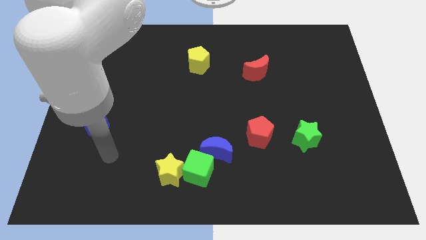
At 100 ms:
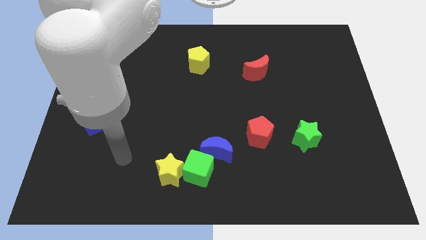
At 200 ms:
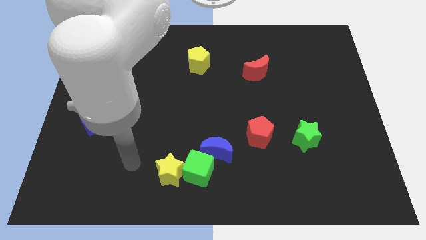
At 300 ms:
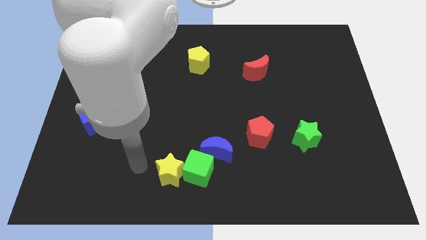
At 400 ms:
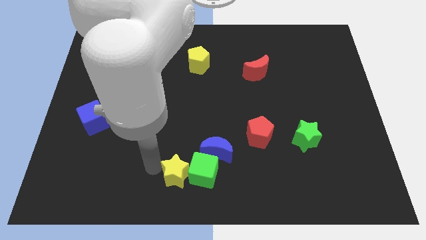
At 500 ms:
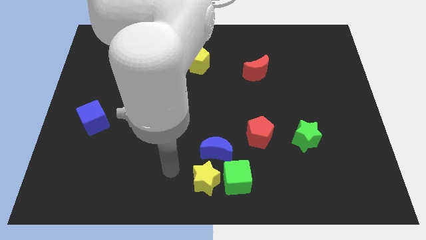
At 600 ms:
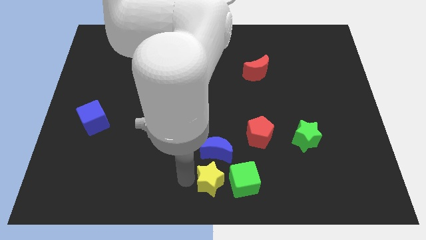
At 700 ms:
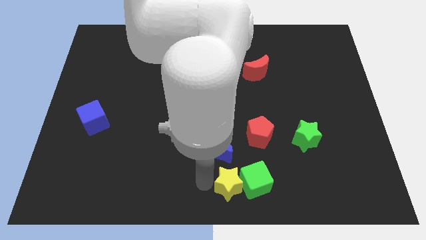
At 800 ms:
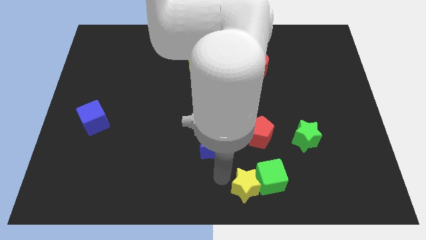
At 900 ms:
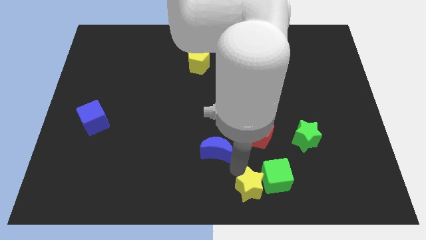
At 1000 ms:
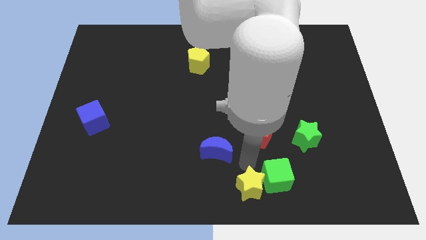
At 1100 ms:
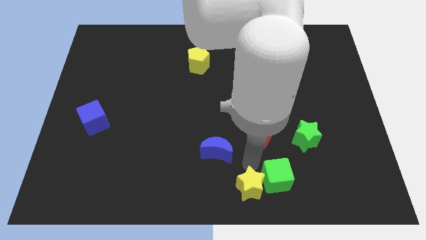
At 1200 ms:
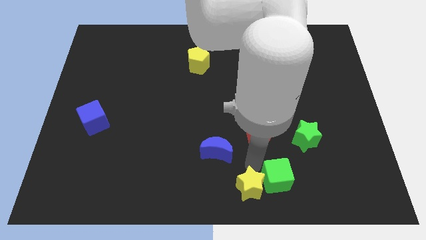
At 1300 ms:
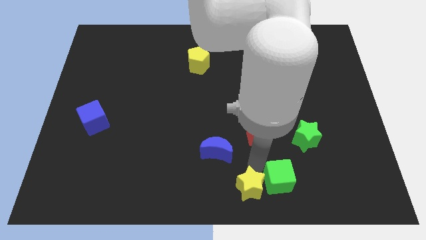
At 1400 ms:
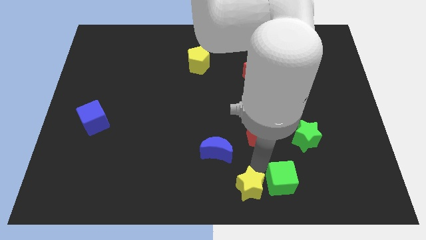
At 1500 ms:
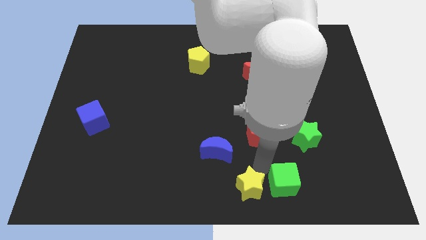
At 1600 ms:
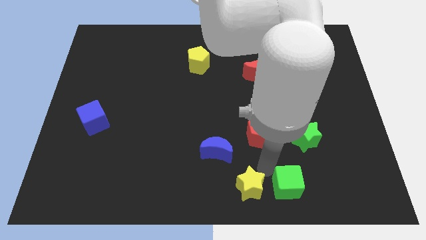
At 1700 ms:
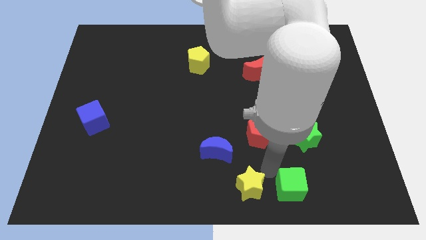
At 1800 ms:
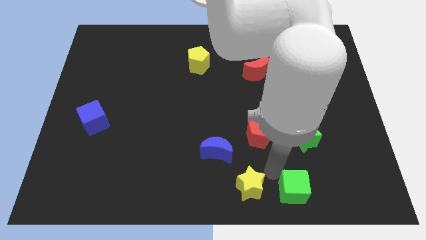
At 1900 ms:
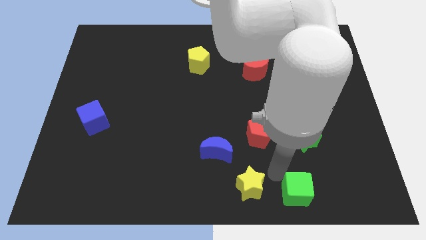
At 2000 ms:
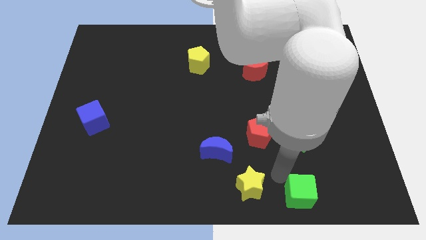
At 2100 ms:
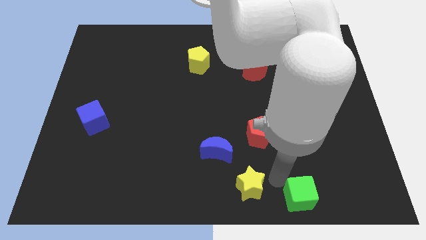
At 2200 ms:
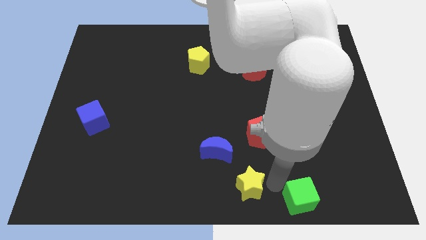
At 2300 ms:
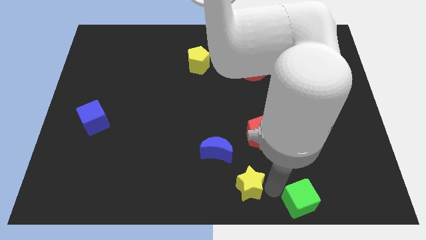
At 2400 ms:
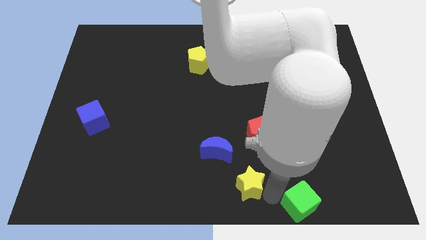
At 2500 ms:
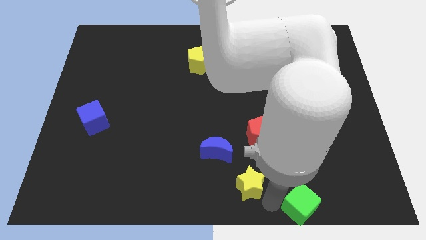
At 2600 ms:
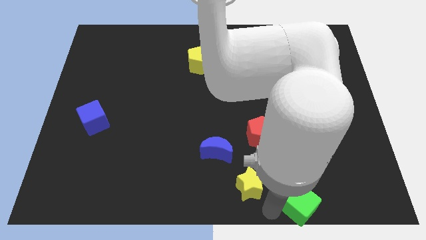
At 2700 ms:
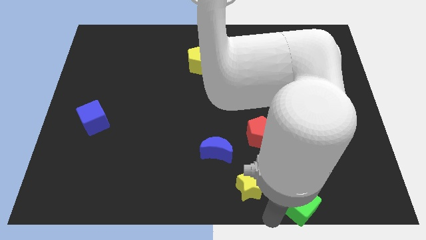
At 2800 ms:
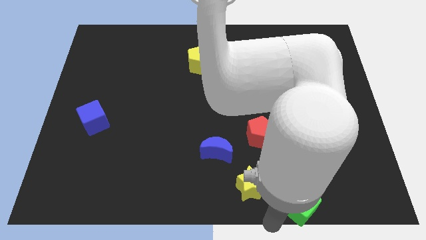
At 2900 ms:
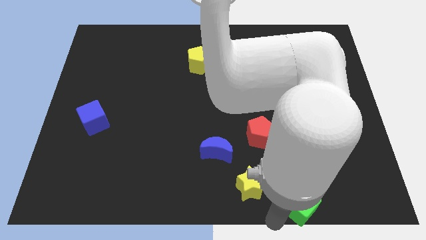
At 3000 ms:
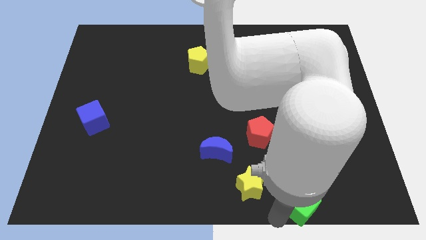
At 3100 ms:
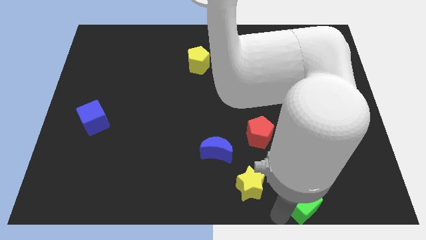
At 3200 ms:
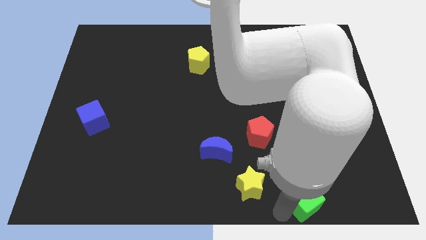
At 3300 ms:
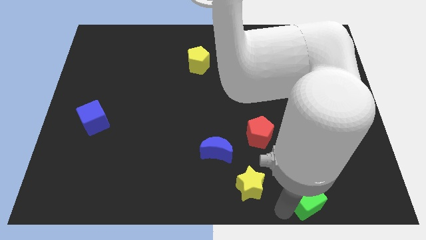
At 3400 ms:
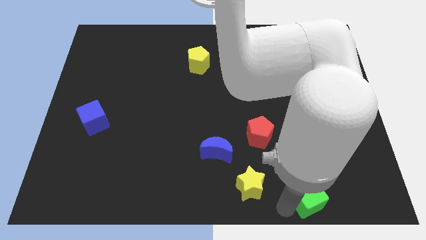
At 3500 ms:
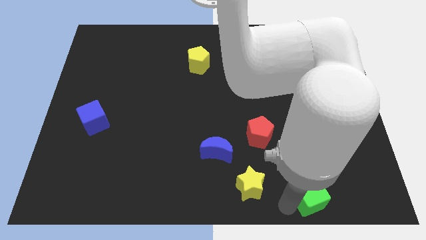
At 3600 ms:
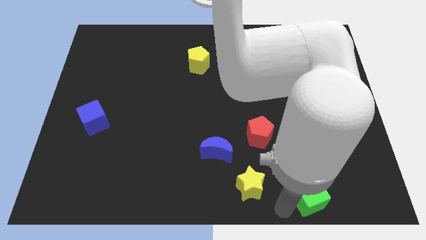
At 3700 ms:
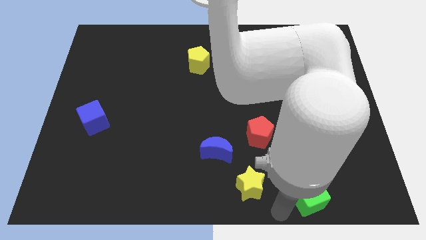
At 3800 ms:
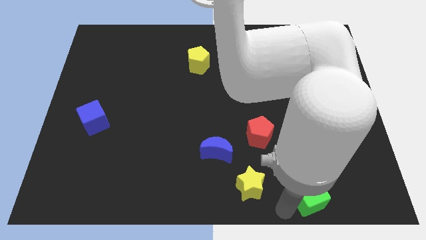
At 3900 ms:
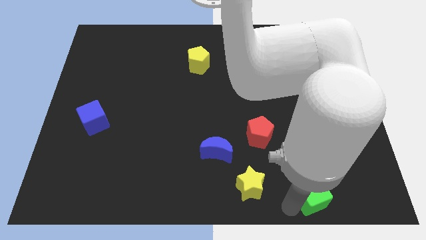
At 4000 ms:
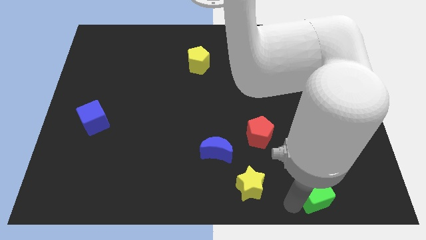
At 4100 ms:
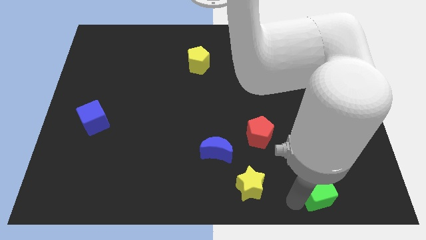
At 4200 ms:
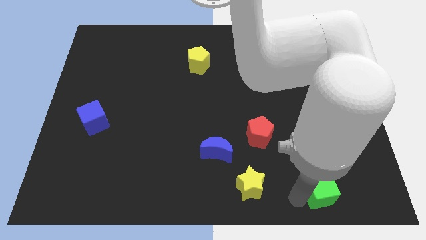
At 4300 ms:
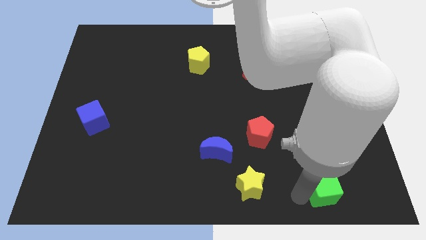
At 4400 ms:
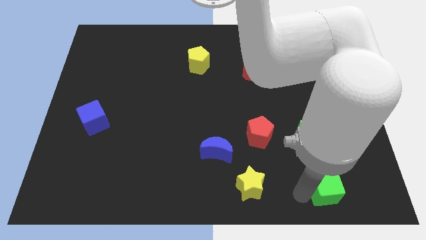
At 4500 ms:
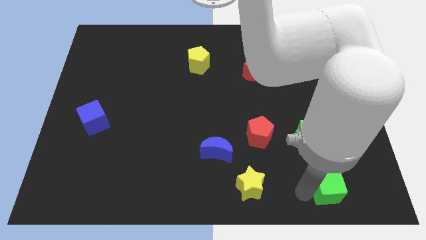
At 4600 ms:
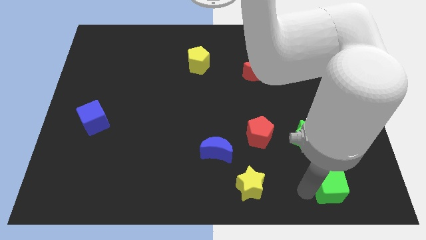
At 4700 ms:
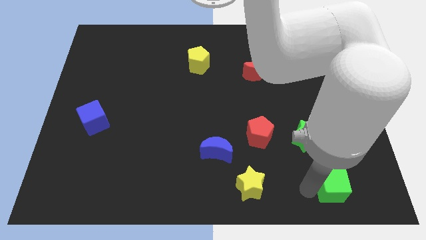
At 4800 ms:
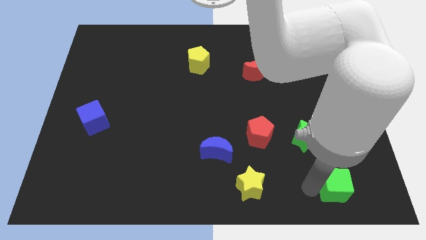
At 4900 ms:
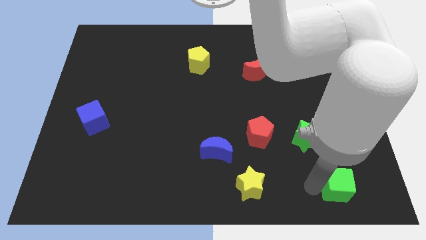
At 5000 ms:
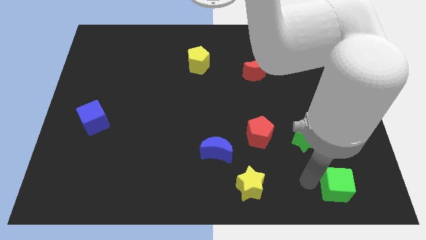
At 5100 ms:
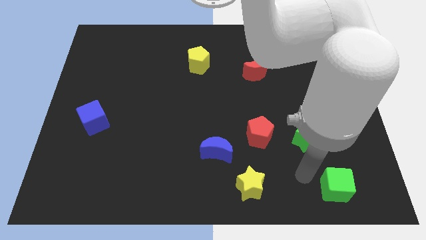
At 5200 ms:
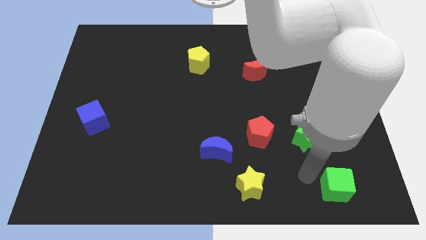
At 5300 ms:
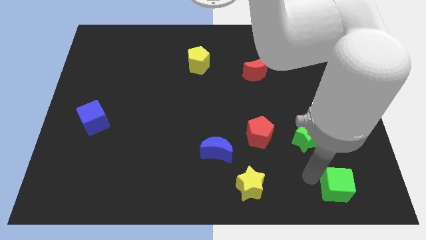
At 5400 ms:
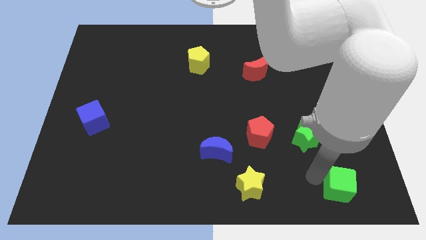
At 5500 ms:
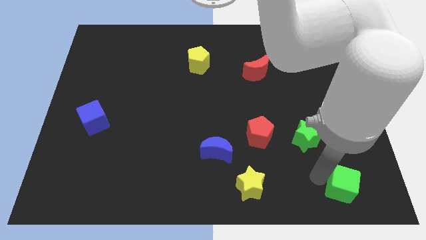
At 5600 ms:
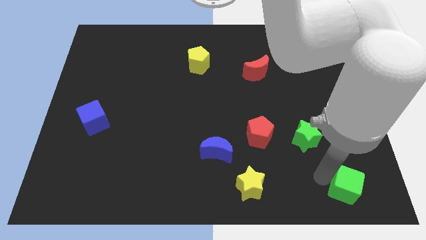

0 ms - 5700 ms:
move the green cube to the lower right corner

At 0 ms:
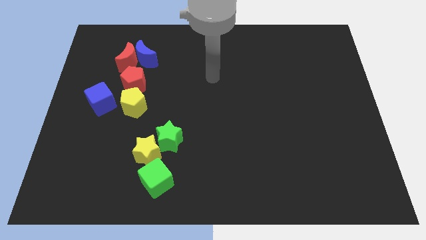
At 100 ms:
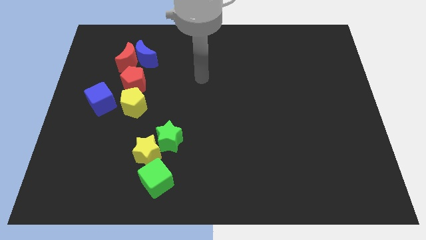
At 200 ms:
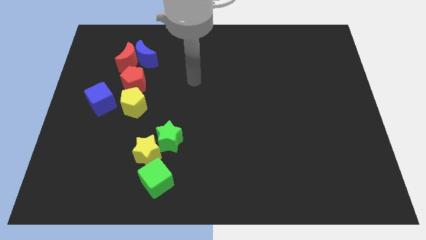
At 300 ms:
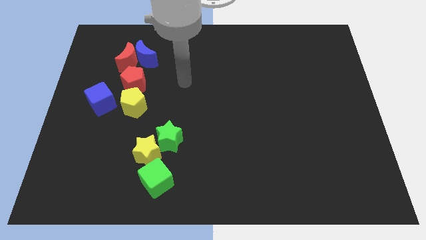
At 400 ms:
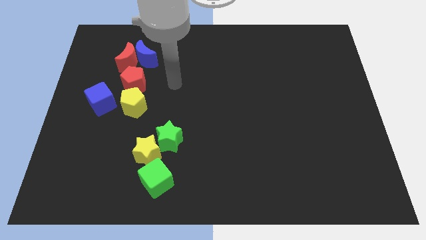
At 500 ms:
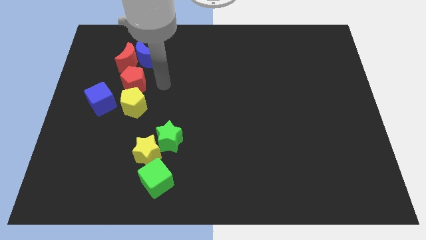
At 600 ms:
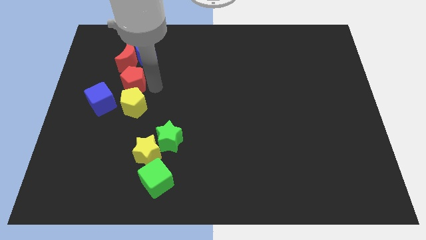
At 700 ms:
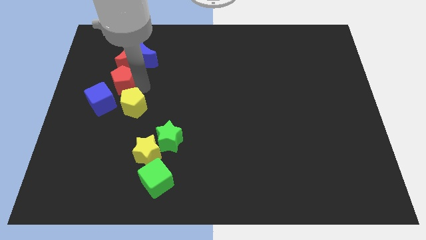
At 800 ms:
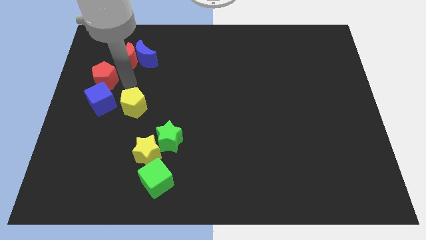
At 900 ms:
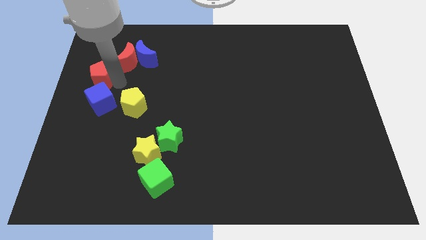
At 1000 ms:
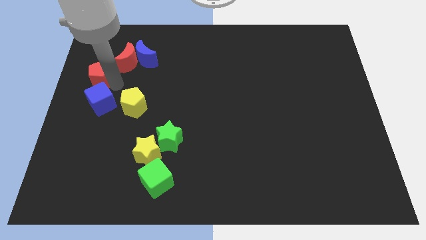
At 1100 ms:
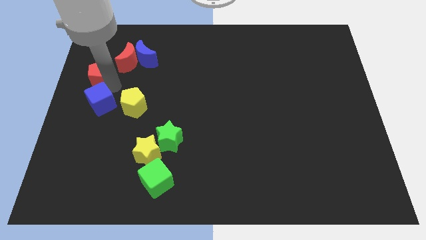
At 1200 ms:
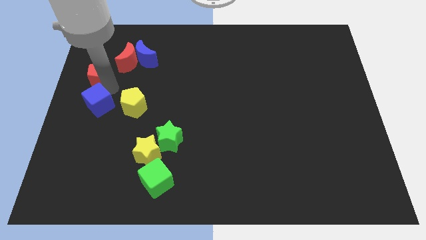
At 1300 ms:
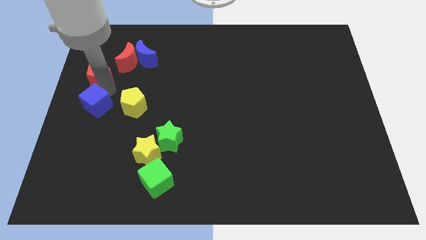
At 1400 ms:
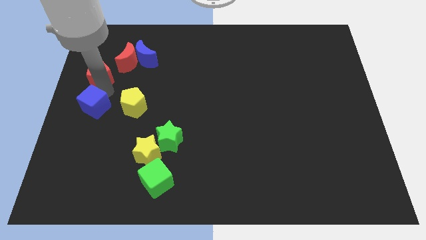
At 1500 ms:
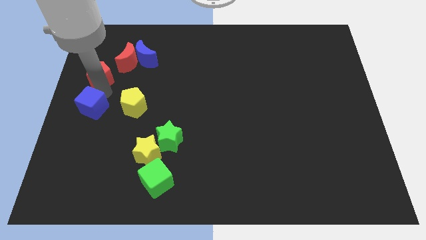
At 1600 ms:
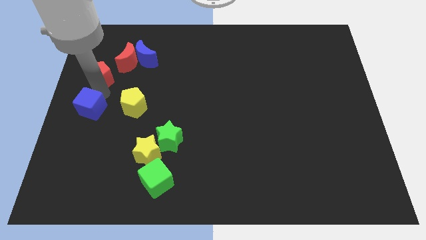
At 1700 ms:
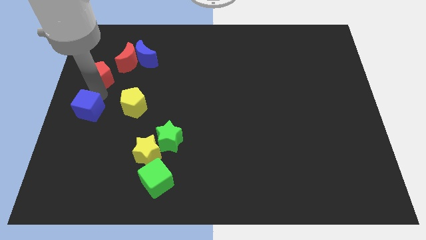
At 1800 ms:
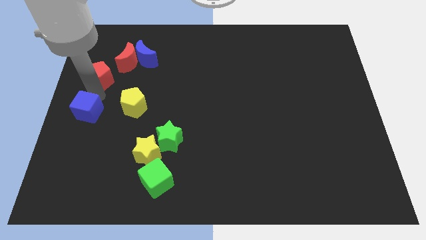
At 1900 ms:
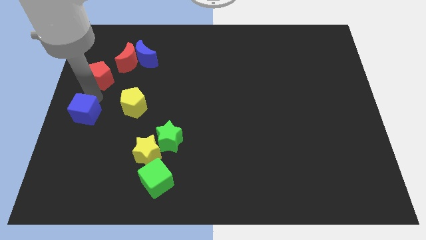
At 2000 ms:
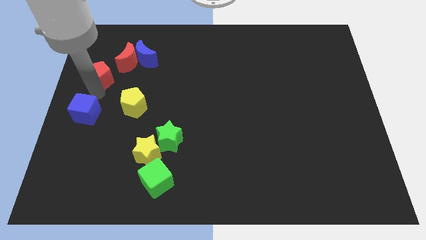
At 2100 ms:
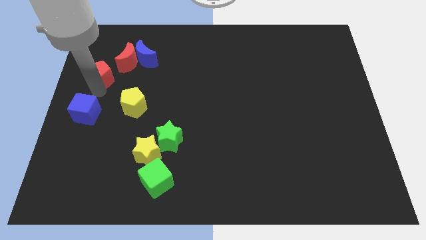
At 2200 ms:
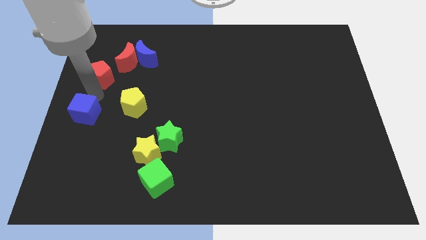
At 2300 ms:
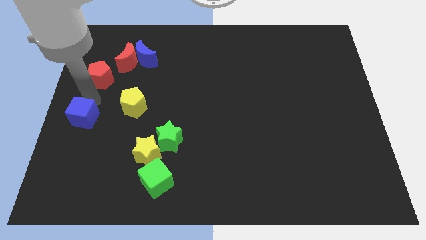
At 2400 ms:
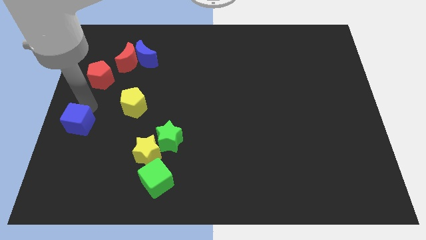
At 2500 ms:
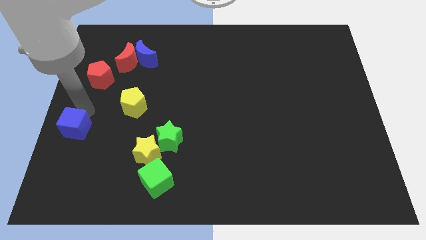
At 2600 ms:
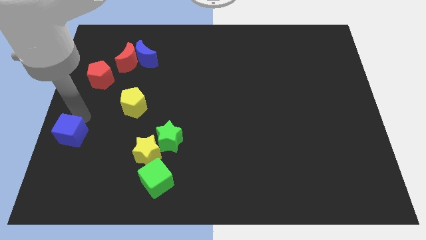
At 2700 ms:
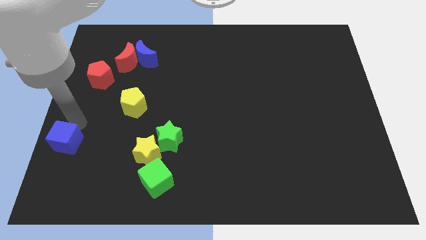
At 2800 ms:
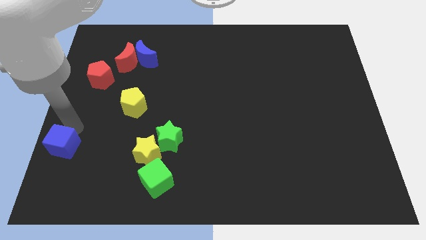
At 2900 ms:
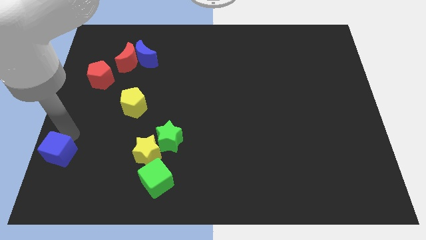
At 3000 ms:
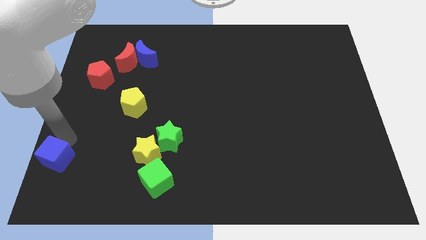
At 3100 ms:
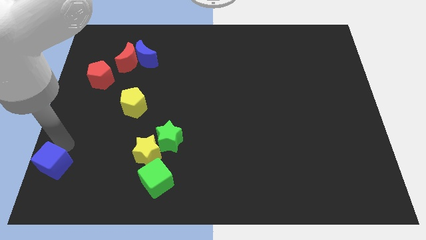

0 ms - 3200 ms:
move the blue cube to the lower left corner
